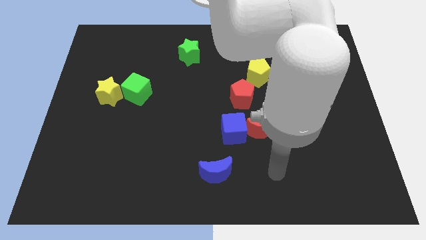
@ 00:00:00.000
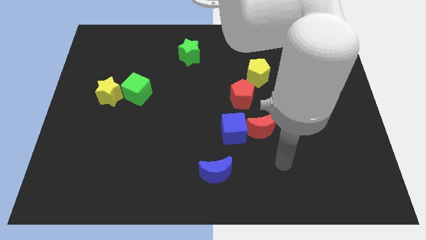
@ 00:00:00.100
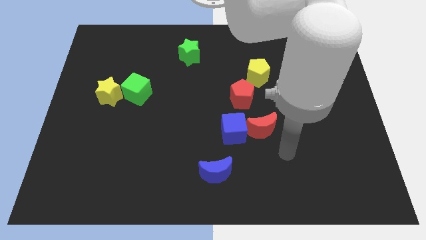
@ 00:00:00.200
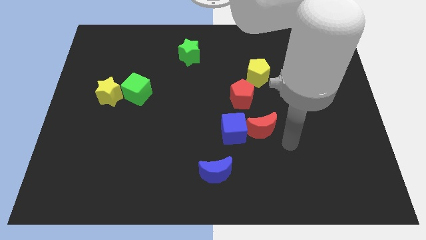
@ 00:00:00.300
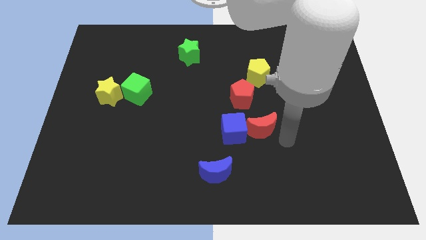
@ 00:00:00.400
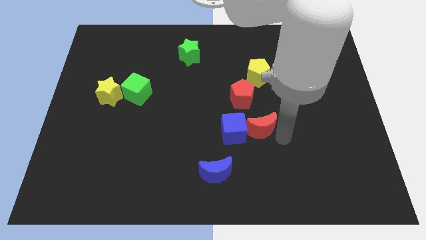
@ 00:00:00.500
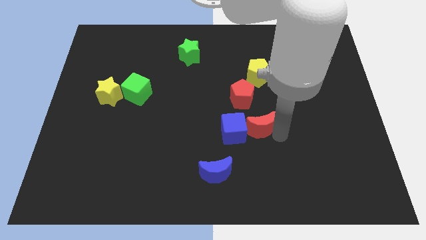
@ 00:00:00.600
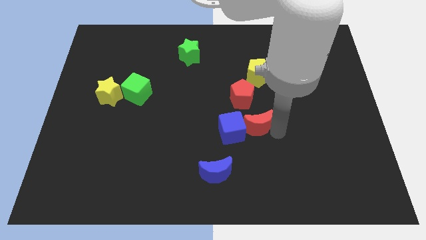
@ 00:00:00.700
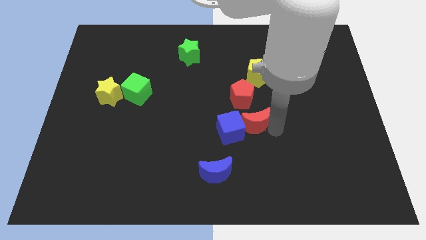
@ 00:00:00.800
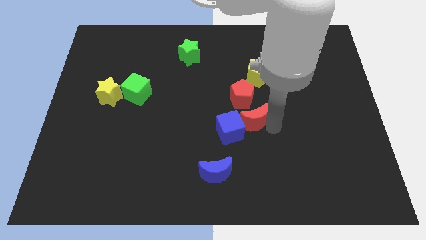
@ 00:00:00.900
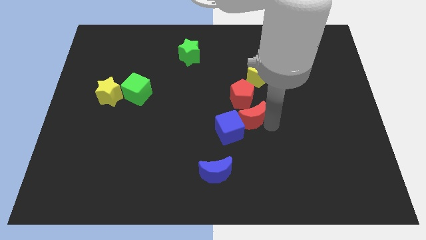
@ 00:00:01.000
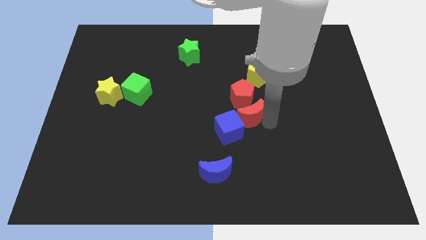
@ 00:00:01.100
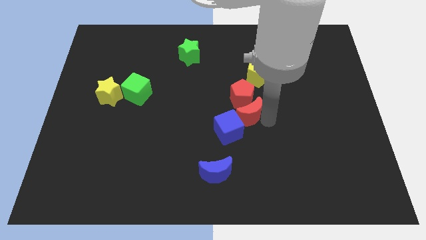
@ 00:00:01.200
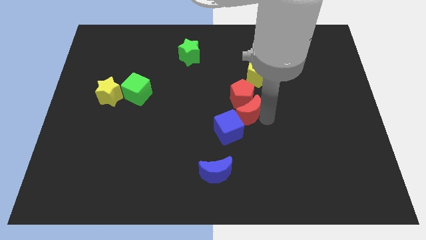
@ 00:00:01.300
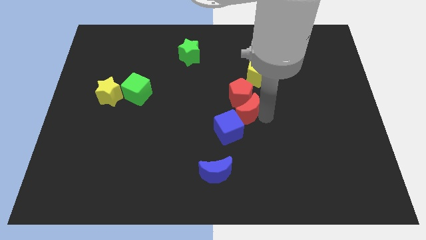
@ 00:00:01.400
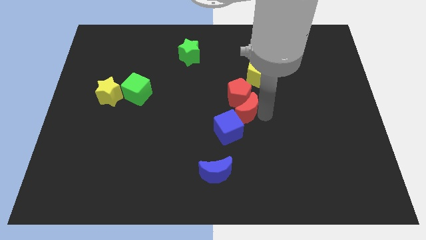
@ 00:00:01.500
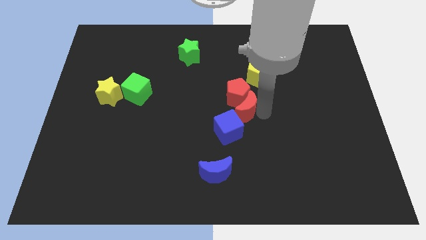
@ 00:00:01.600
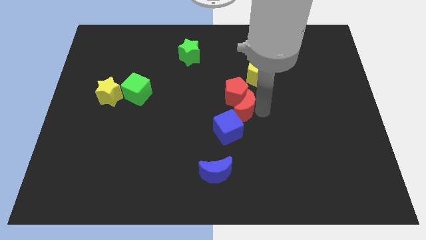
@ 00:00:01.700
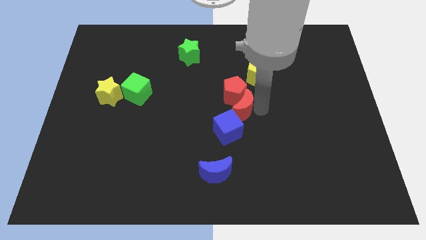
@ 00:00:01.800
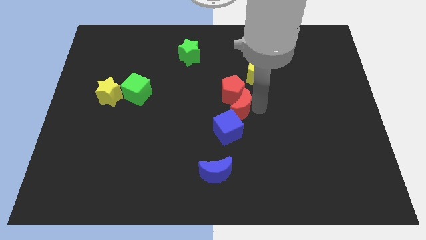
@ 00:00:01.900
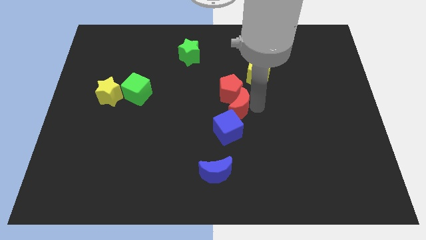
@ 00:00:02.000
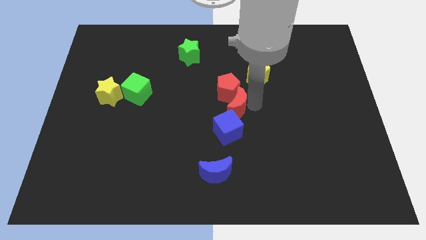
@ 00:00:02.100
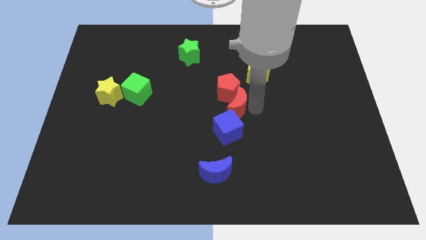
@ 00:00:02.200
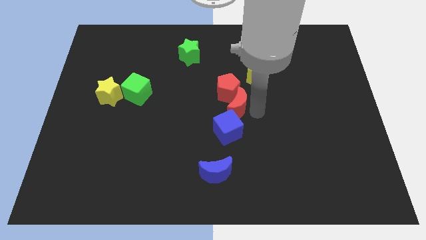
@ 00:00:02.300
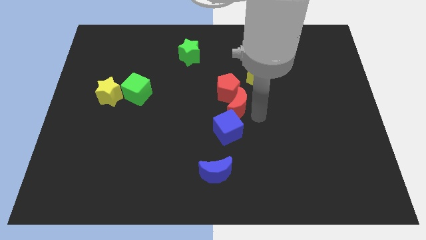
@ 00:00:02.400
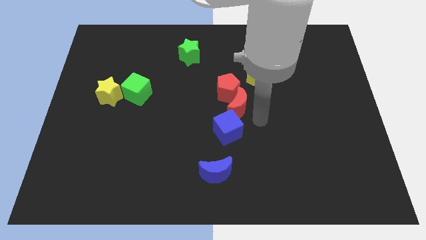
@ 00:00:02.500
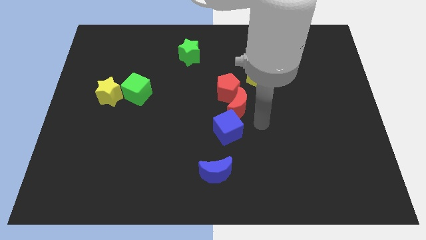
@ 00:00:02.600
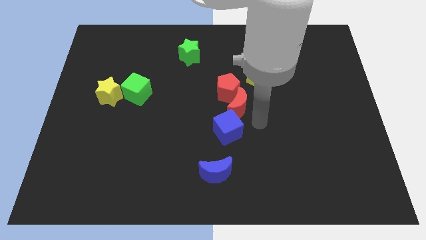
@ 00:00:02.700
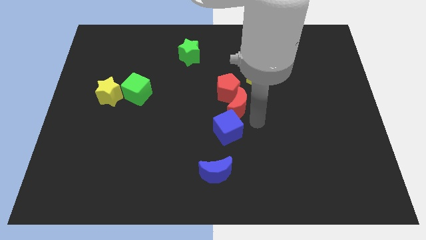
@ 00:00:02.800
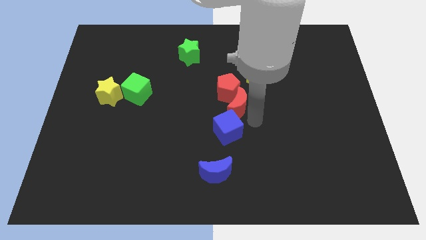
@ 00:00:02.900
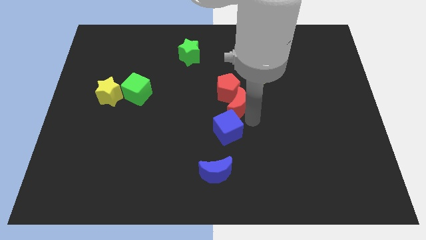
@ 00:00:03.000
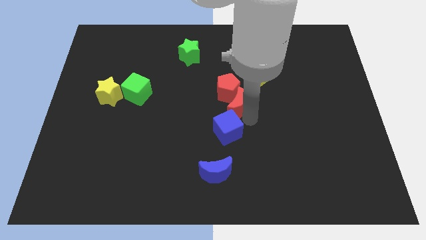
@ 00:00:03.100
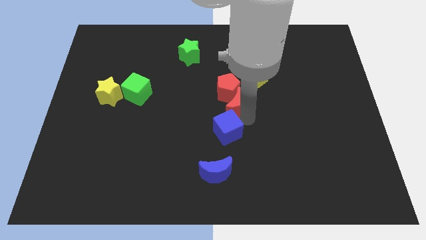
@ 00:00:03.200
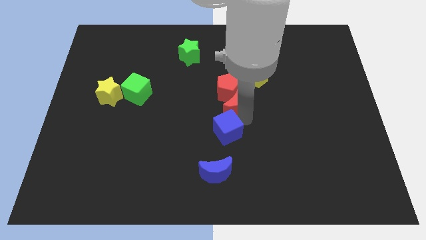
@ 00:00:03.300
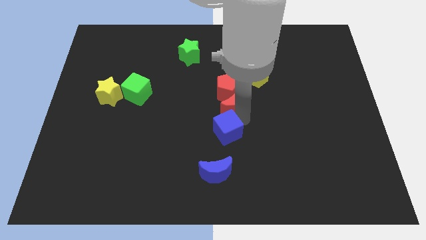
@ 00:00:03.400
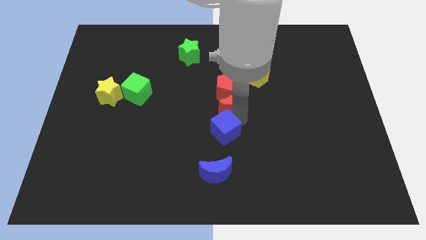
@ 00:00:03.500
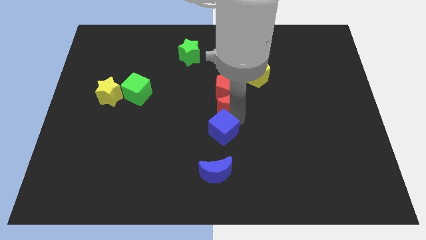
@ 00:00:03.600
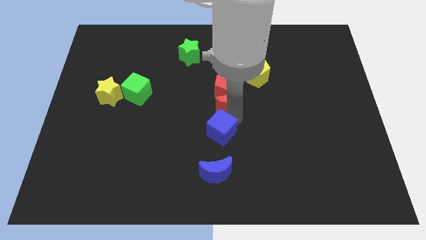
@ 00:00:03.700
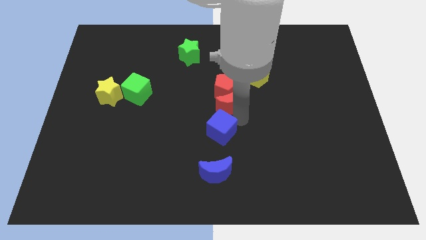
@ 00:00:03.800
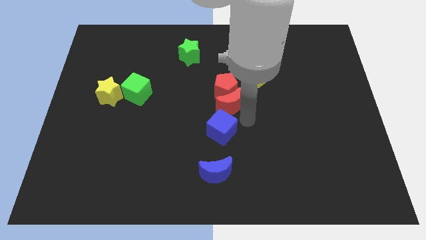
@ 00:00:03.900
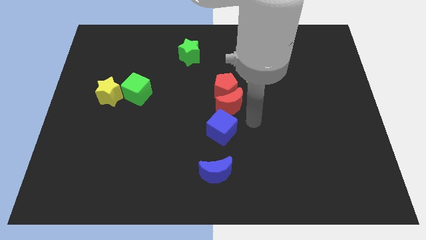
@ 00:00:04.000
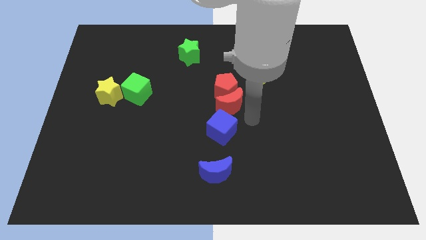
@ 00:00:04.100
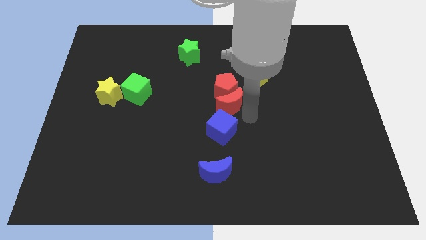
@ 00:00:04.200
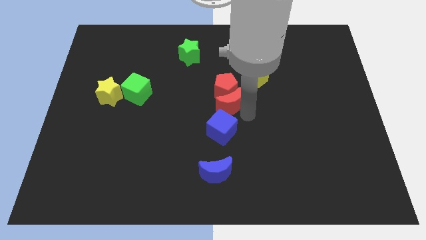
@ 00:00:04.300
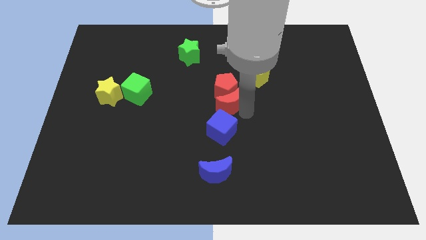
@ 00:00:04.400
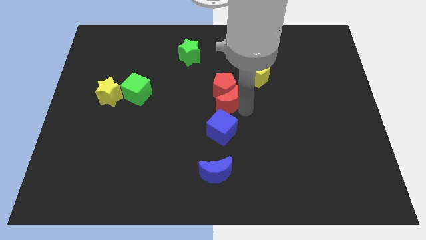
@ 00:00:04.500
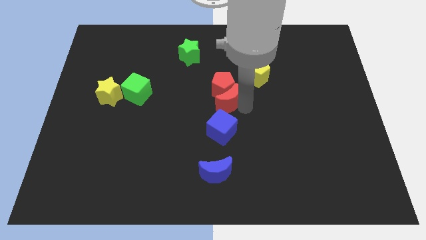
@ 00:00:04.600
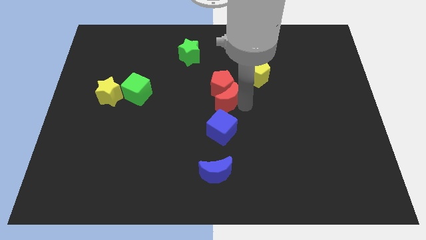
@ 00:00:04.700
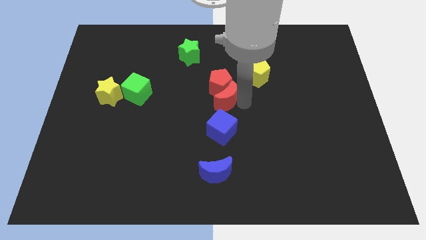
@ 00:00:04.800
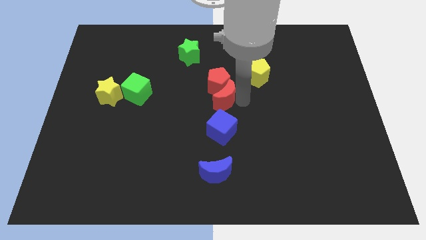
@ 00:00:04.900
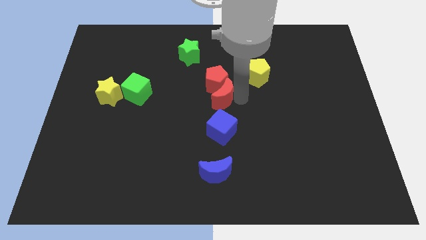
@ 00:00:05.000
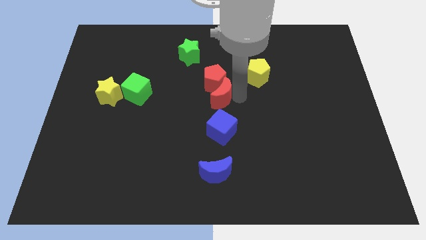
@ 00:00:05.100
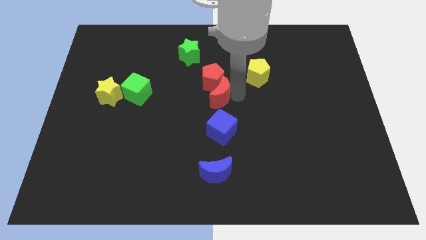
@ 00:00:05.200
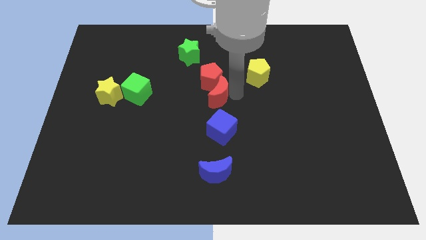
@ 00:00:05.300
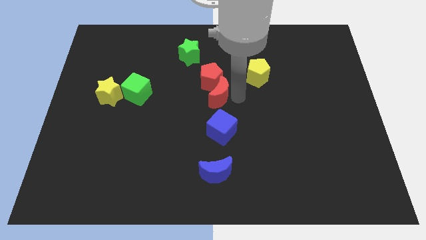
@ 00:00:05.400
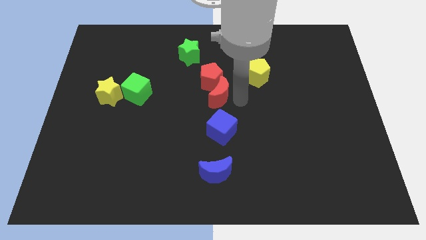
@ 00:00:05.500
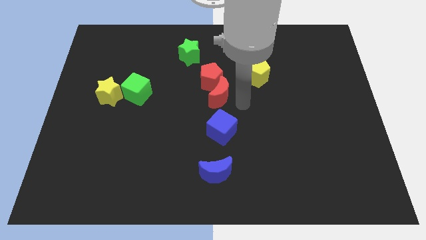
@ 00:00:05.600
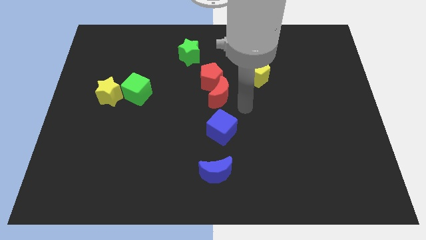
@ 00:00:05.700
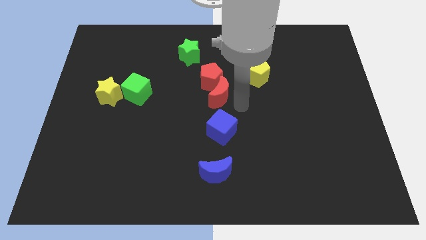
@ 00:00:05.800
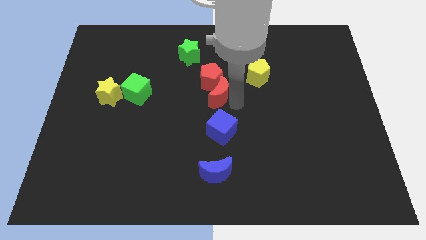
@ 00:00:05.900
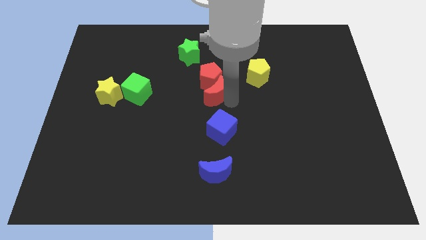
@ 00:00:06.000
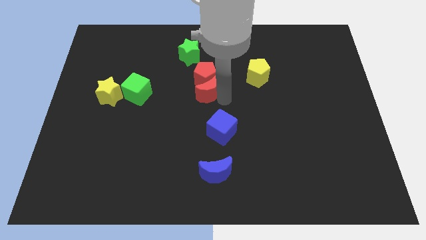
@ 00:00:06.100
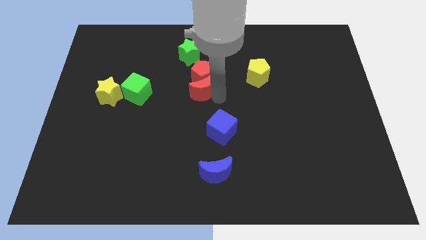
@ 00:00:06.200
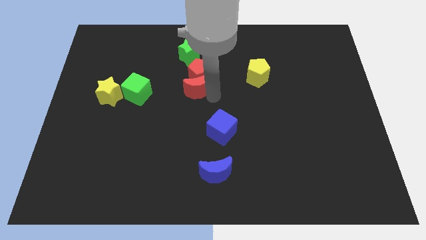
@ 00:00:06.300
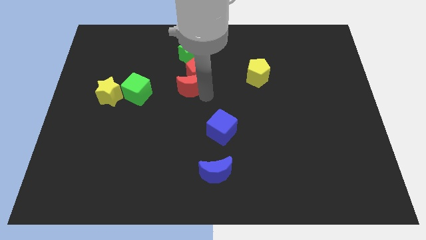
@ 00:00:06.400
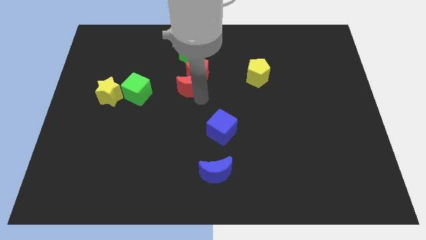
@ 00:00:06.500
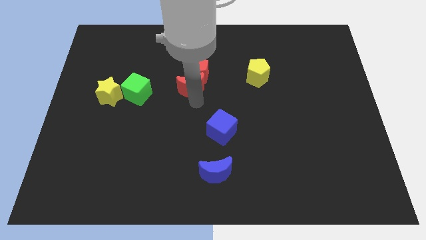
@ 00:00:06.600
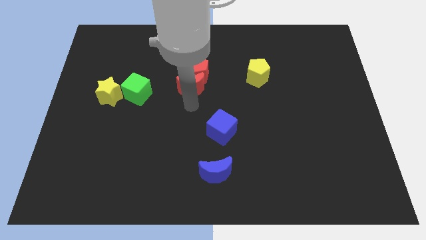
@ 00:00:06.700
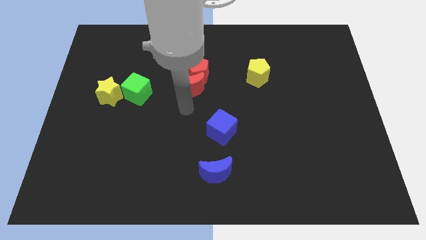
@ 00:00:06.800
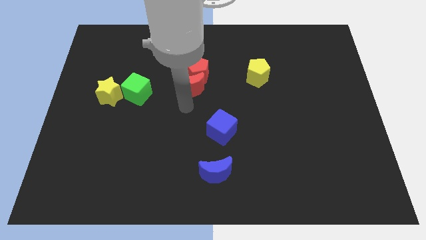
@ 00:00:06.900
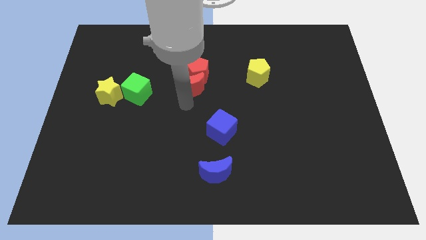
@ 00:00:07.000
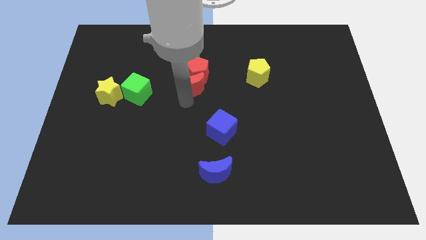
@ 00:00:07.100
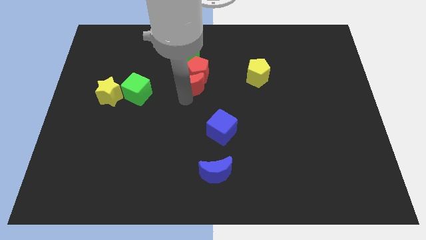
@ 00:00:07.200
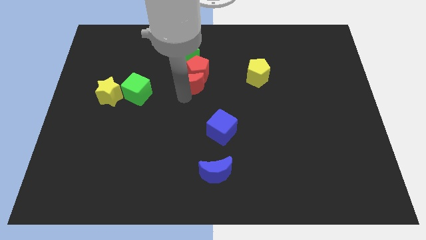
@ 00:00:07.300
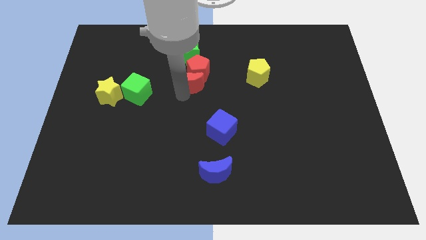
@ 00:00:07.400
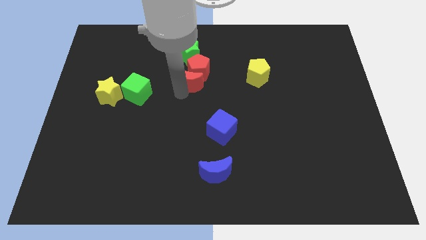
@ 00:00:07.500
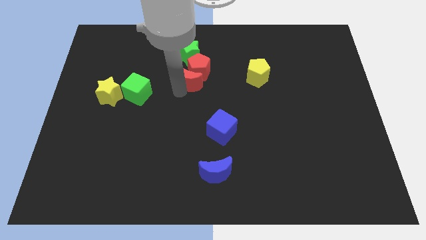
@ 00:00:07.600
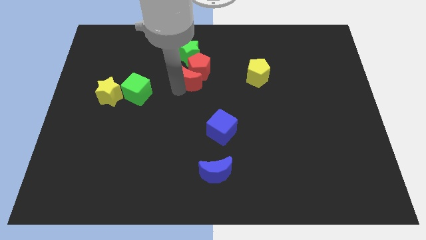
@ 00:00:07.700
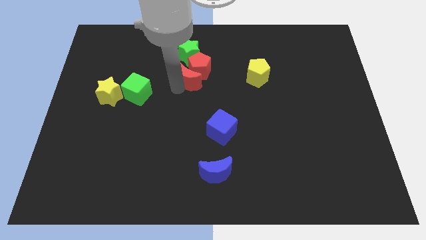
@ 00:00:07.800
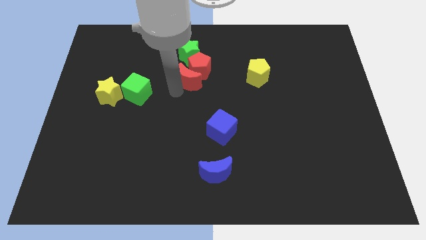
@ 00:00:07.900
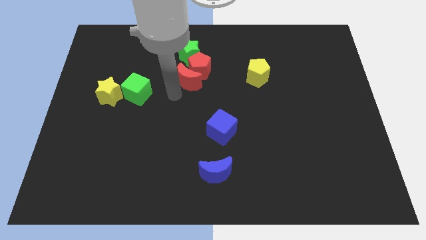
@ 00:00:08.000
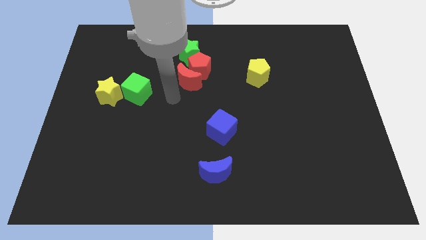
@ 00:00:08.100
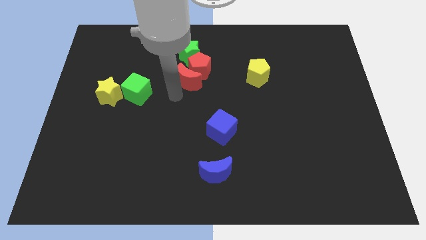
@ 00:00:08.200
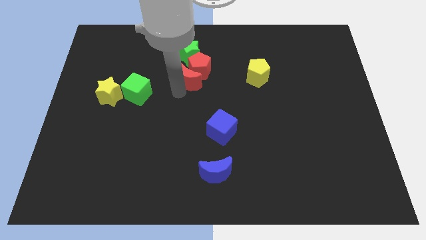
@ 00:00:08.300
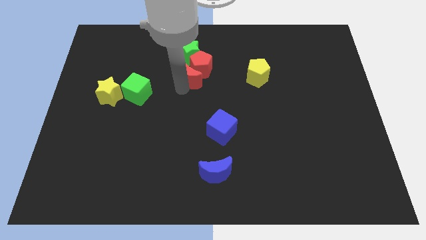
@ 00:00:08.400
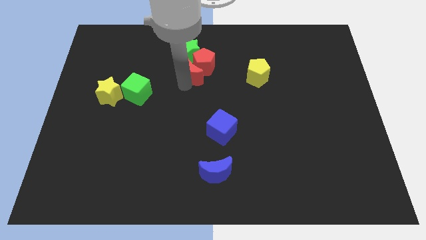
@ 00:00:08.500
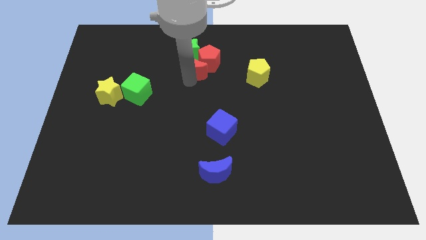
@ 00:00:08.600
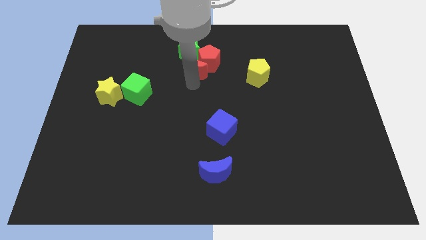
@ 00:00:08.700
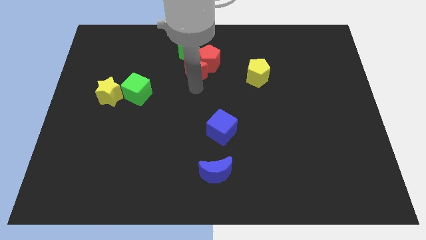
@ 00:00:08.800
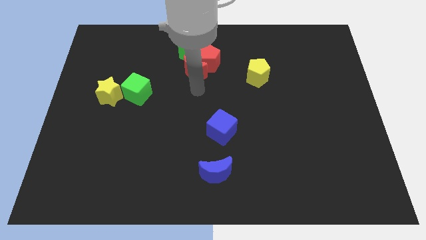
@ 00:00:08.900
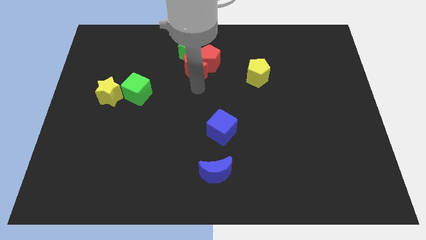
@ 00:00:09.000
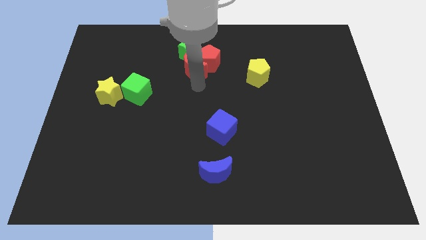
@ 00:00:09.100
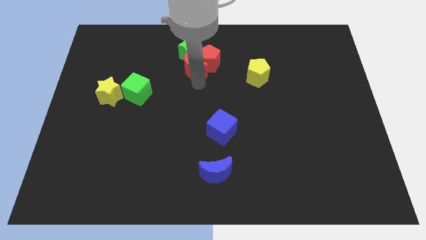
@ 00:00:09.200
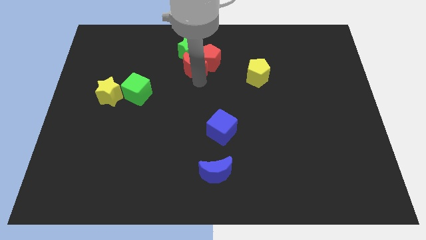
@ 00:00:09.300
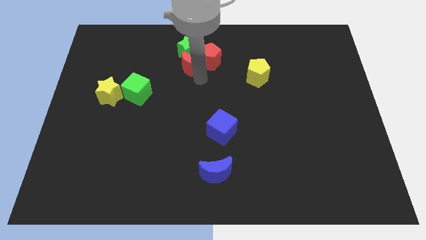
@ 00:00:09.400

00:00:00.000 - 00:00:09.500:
slide the red moon next to the green star
